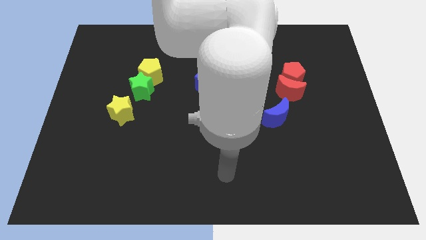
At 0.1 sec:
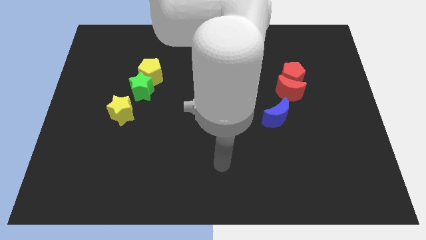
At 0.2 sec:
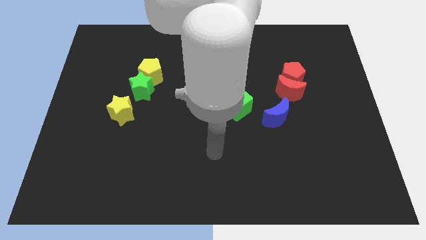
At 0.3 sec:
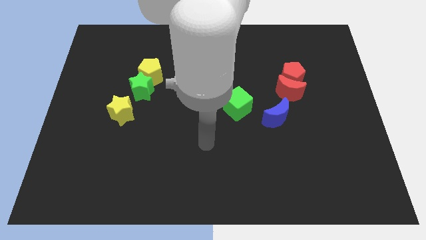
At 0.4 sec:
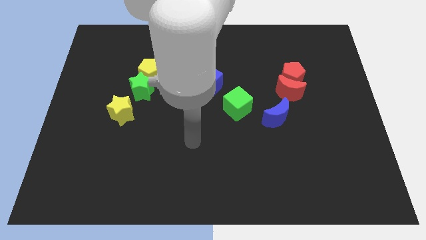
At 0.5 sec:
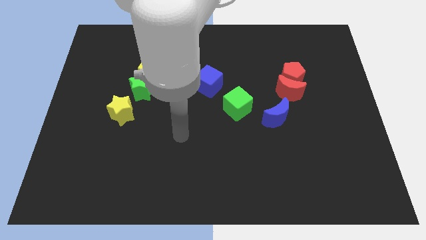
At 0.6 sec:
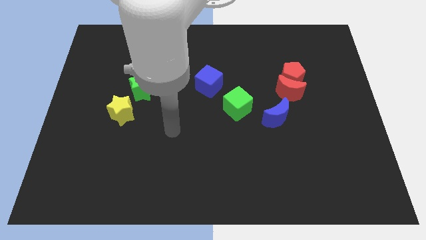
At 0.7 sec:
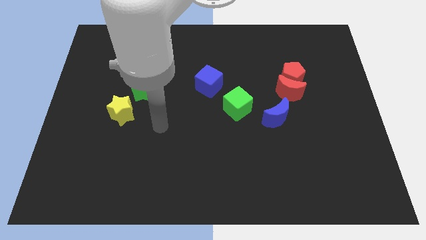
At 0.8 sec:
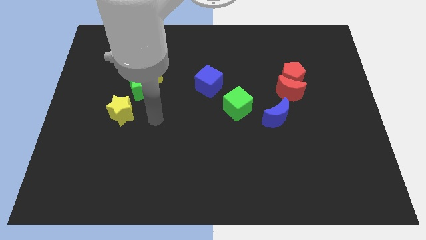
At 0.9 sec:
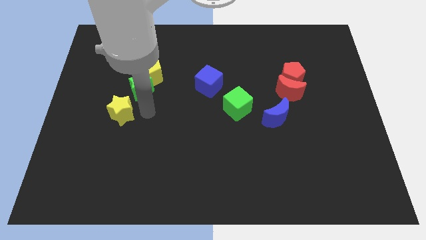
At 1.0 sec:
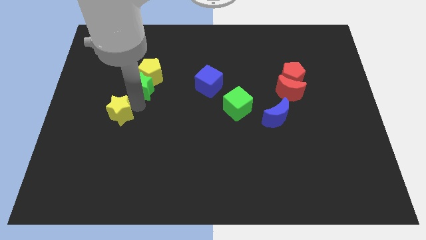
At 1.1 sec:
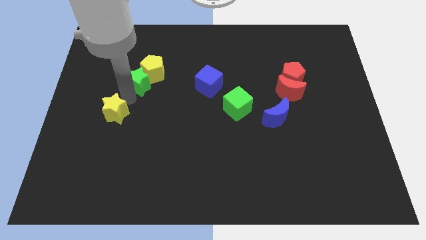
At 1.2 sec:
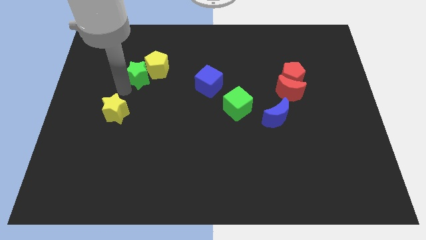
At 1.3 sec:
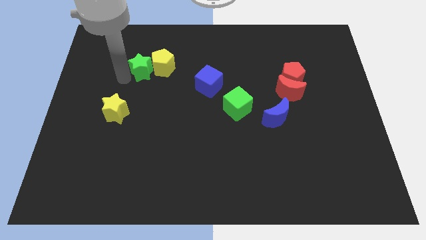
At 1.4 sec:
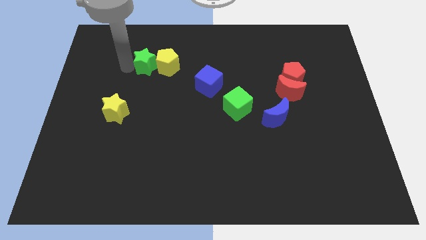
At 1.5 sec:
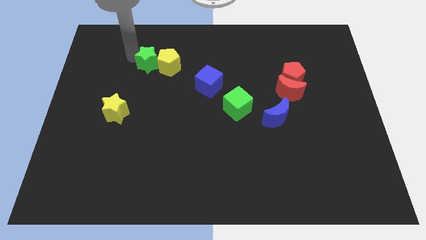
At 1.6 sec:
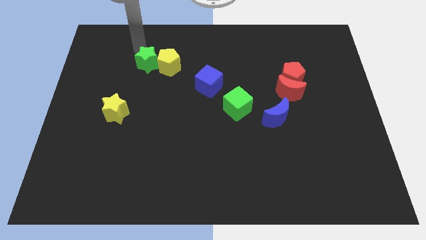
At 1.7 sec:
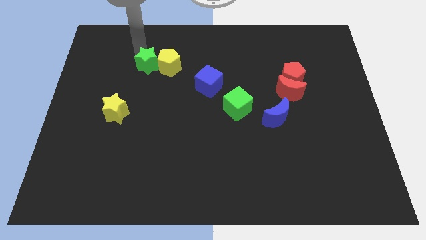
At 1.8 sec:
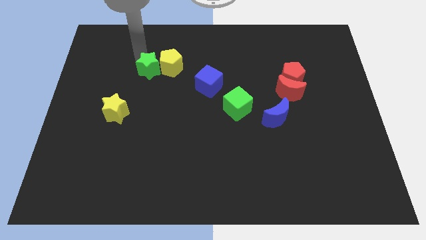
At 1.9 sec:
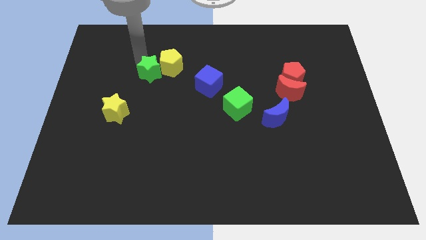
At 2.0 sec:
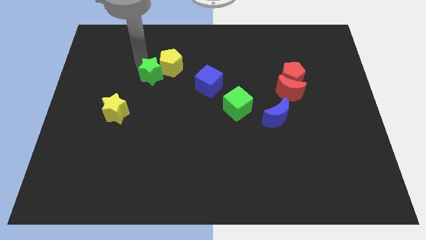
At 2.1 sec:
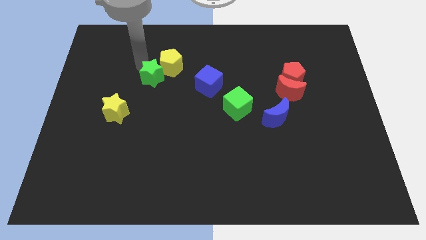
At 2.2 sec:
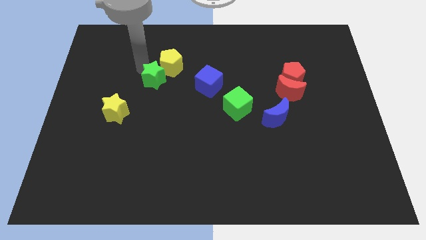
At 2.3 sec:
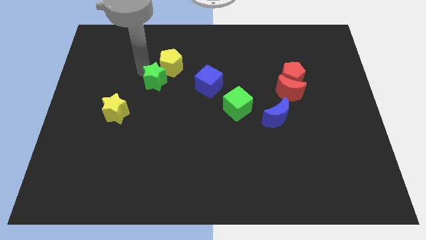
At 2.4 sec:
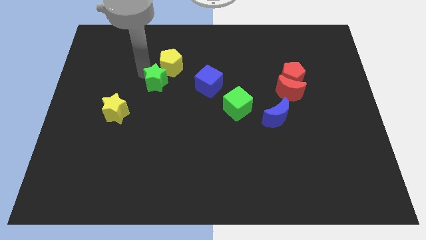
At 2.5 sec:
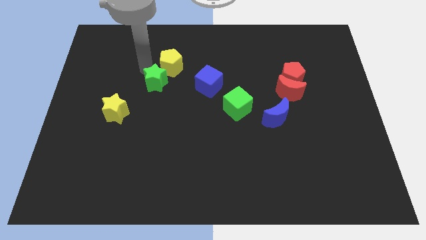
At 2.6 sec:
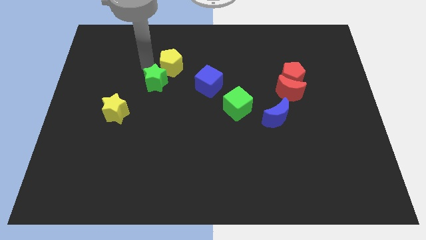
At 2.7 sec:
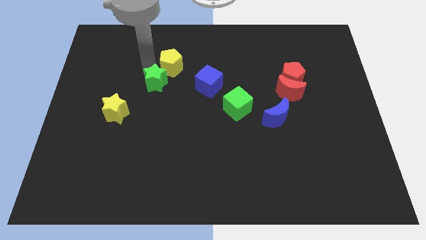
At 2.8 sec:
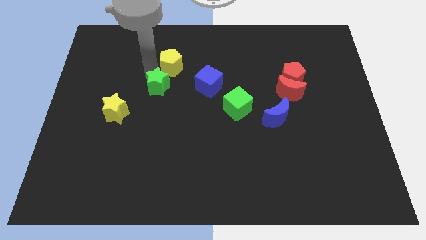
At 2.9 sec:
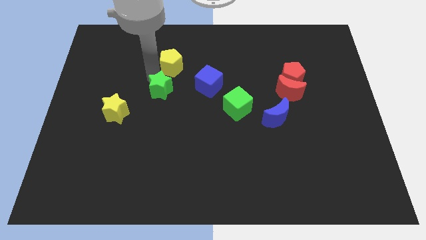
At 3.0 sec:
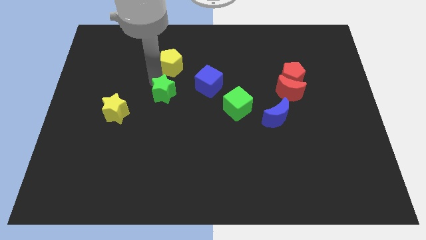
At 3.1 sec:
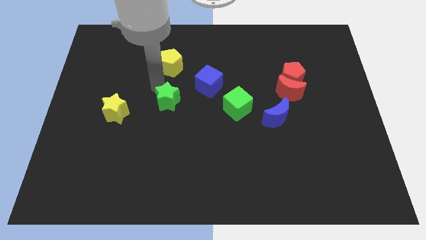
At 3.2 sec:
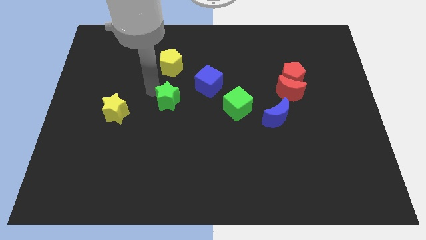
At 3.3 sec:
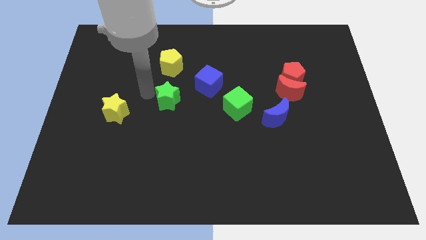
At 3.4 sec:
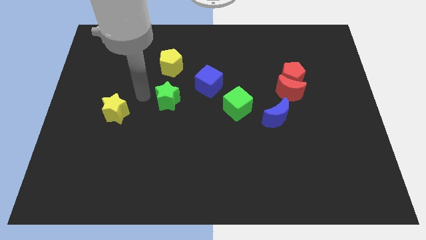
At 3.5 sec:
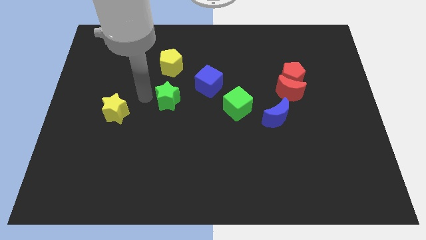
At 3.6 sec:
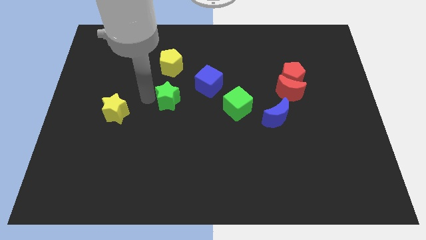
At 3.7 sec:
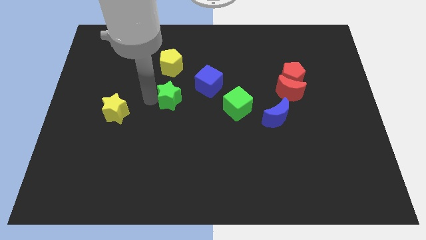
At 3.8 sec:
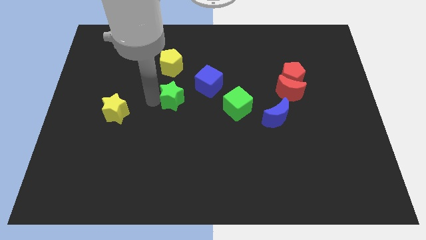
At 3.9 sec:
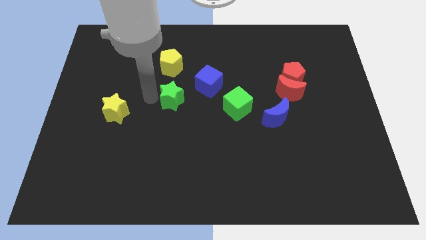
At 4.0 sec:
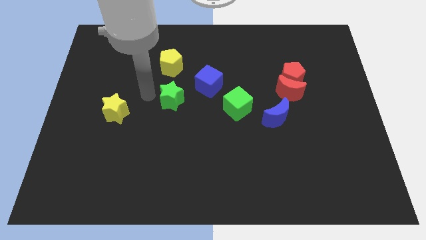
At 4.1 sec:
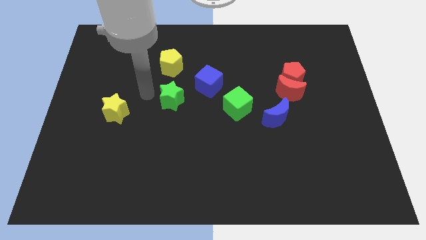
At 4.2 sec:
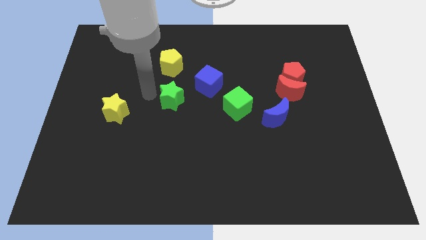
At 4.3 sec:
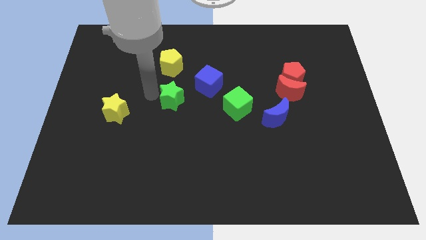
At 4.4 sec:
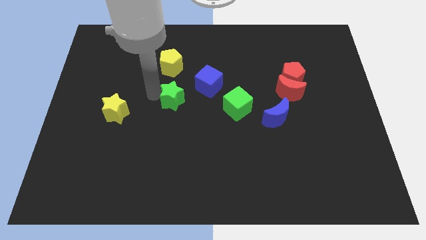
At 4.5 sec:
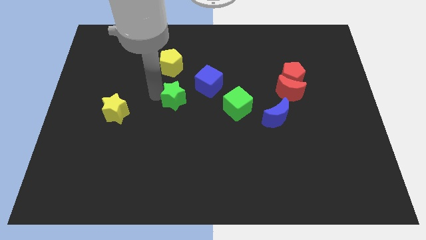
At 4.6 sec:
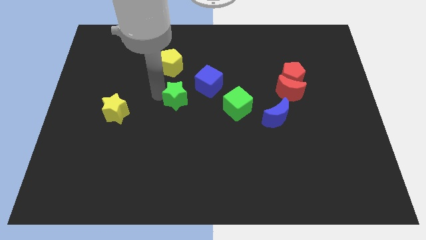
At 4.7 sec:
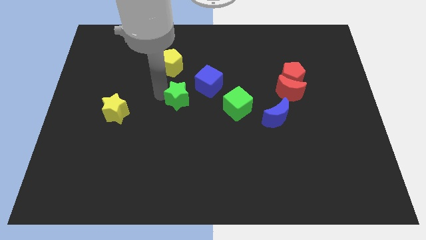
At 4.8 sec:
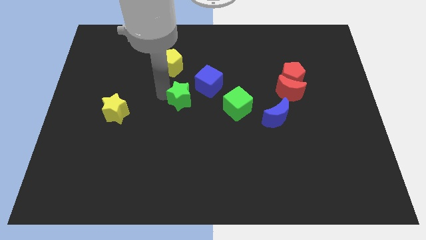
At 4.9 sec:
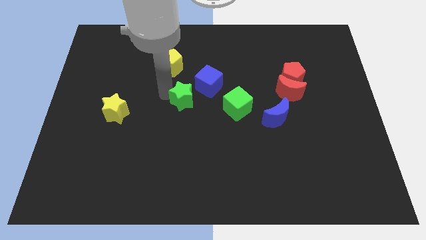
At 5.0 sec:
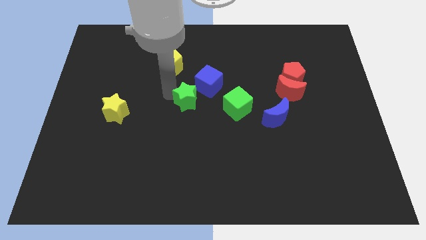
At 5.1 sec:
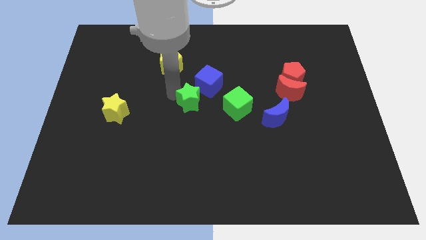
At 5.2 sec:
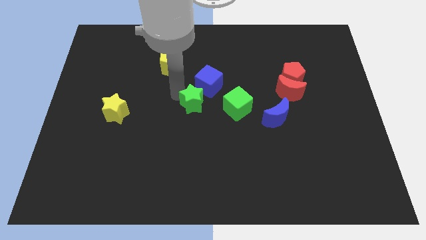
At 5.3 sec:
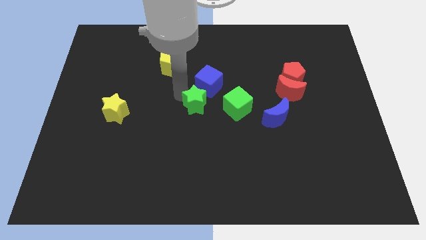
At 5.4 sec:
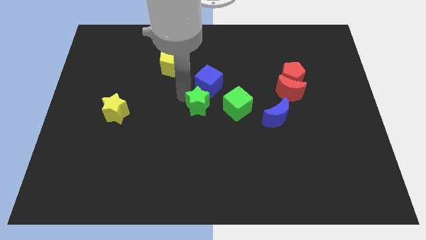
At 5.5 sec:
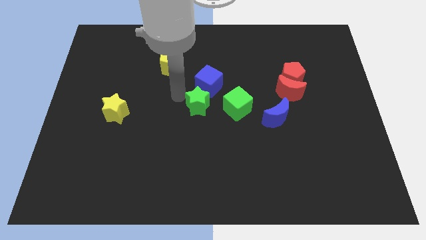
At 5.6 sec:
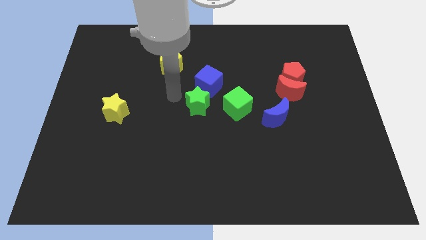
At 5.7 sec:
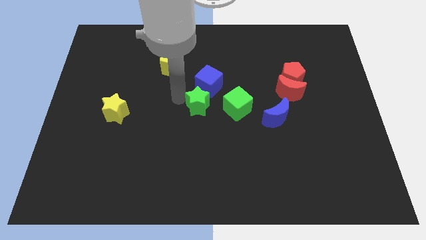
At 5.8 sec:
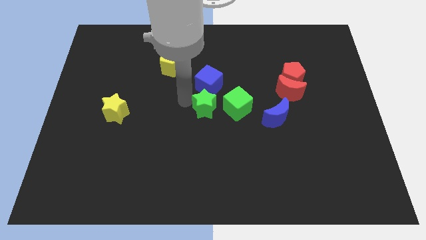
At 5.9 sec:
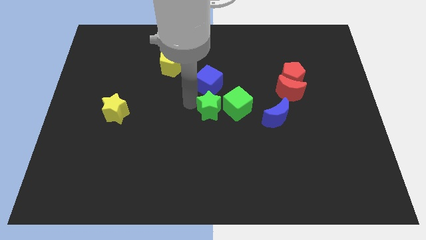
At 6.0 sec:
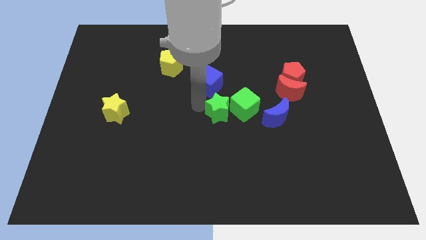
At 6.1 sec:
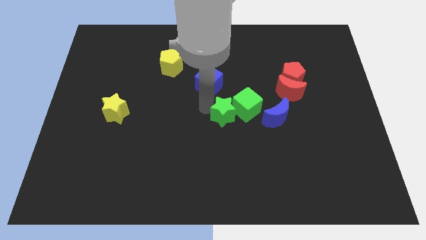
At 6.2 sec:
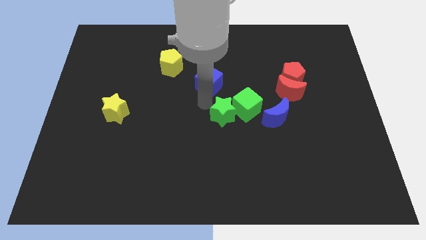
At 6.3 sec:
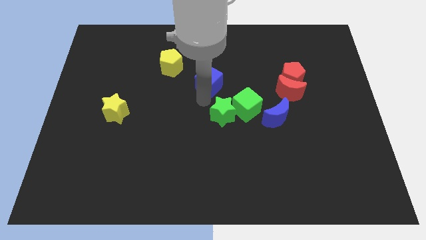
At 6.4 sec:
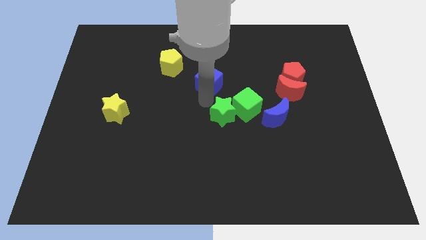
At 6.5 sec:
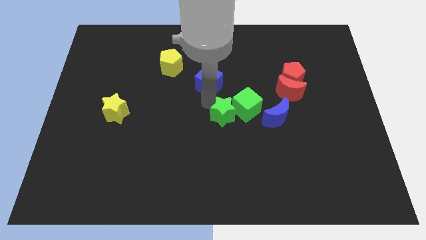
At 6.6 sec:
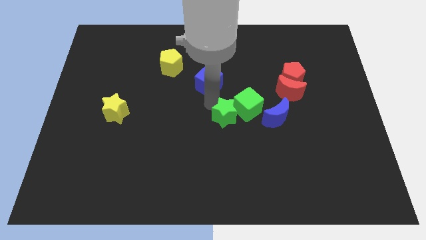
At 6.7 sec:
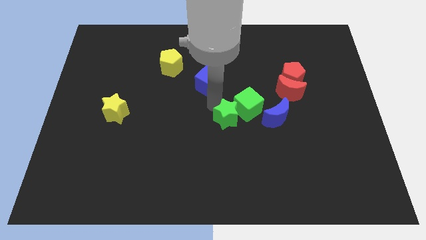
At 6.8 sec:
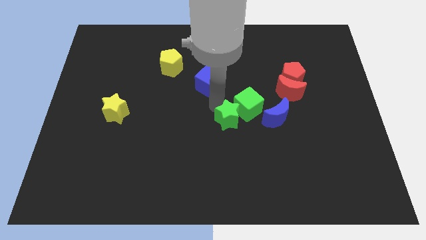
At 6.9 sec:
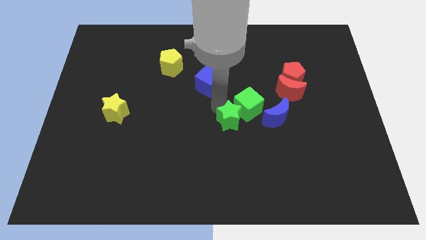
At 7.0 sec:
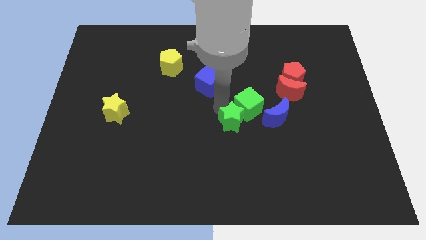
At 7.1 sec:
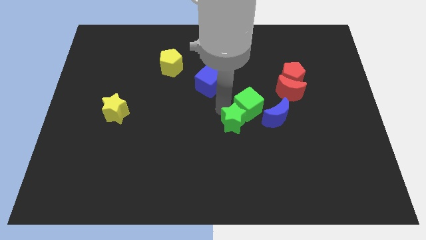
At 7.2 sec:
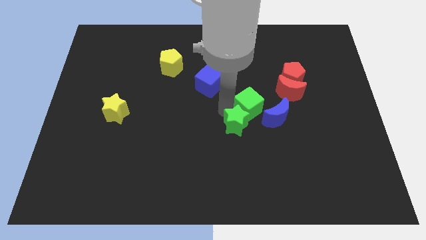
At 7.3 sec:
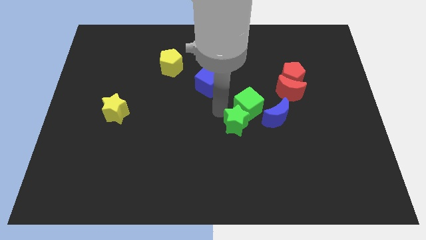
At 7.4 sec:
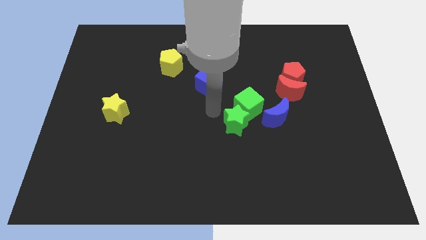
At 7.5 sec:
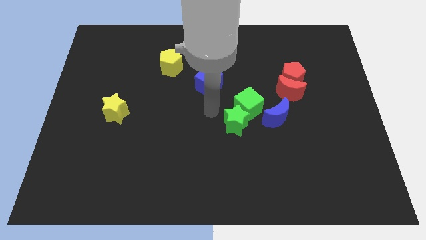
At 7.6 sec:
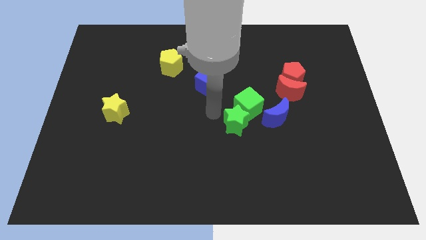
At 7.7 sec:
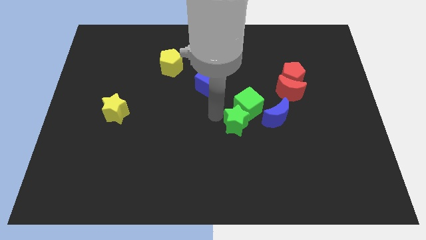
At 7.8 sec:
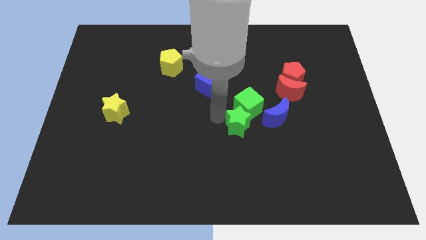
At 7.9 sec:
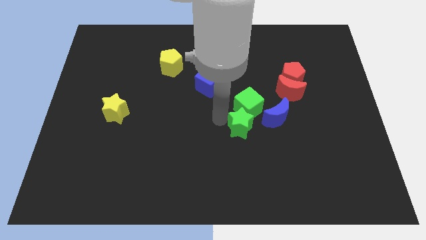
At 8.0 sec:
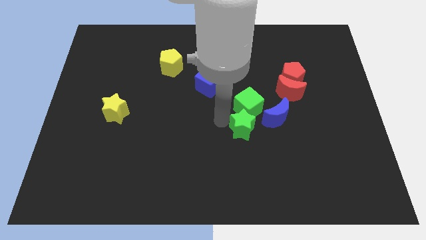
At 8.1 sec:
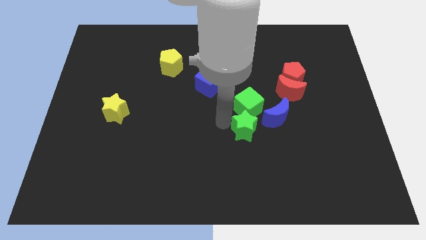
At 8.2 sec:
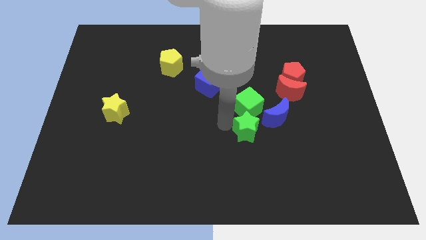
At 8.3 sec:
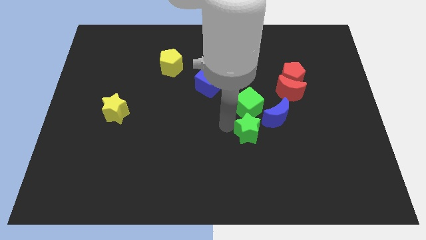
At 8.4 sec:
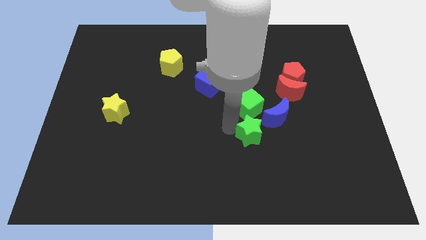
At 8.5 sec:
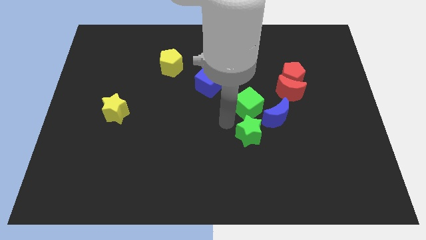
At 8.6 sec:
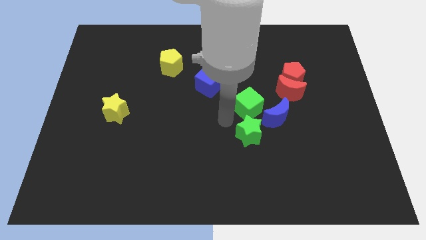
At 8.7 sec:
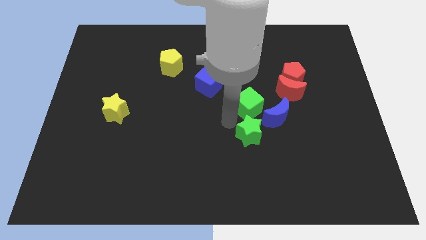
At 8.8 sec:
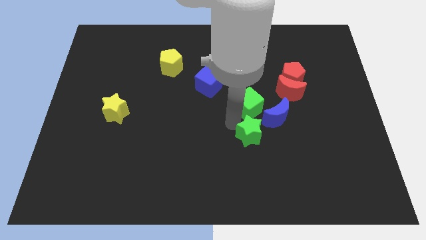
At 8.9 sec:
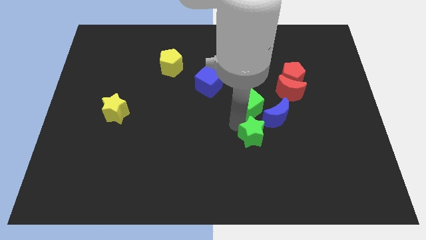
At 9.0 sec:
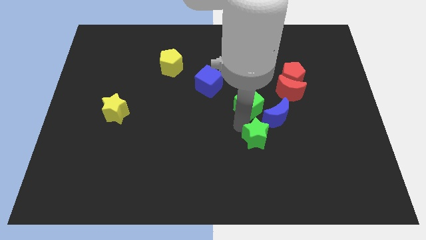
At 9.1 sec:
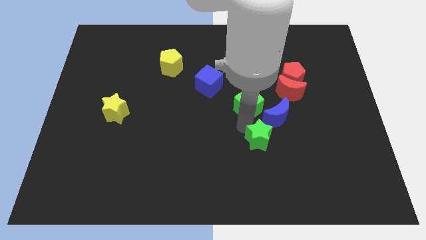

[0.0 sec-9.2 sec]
slide the green star to the bottom side of the blue moon
